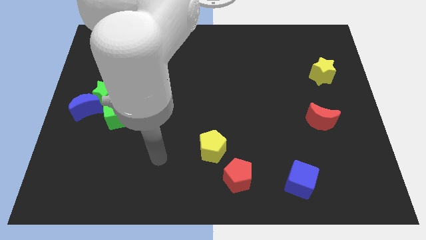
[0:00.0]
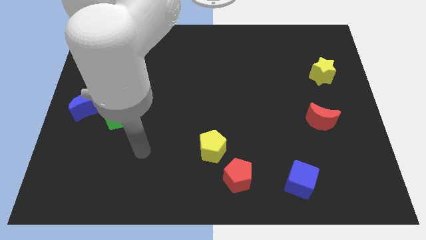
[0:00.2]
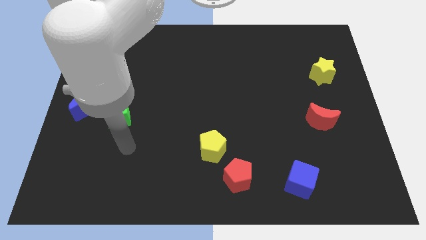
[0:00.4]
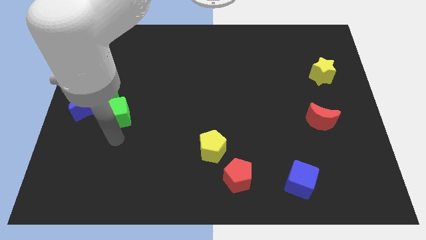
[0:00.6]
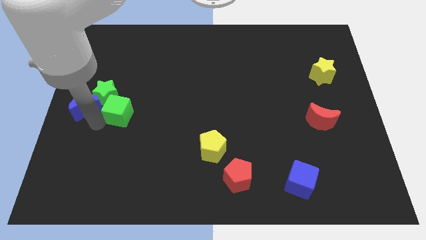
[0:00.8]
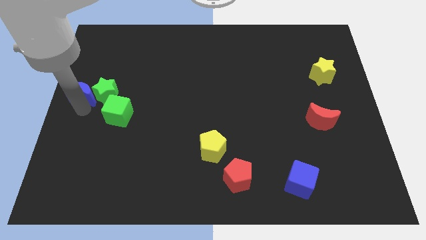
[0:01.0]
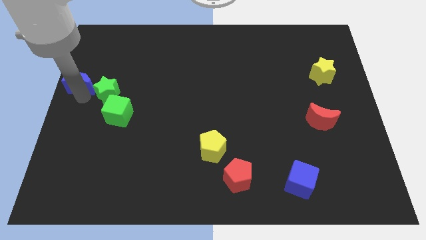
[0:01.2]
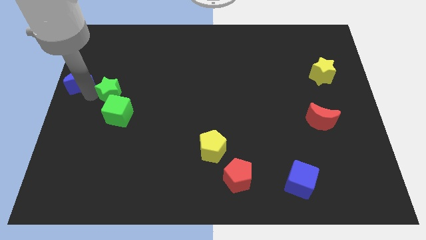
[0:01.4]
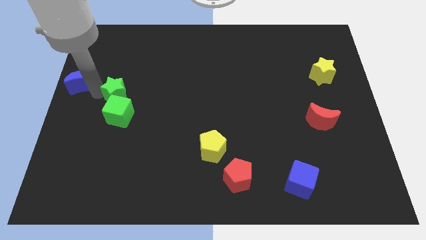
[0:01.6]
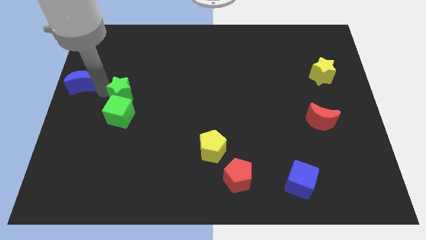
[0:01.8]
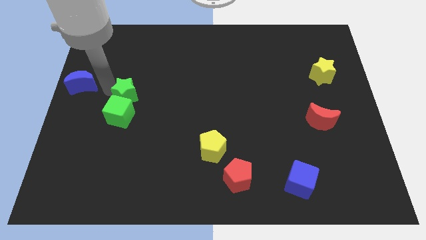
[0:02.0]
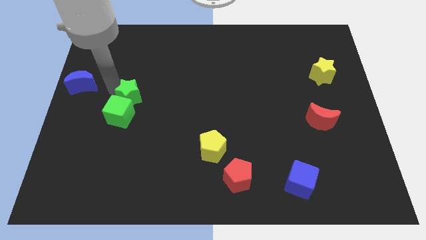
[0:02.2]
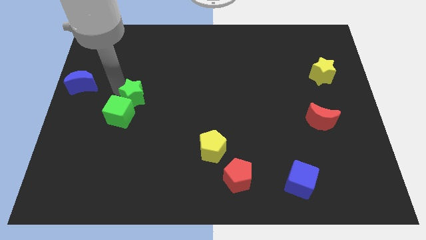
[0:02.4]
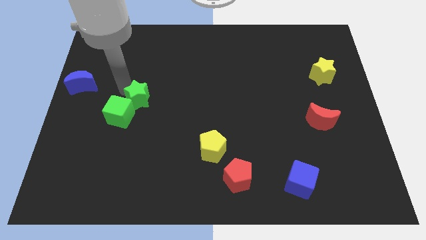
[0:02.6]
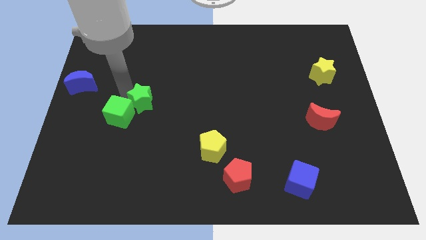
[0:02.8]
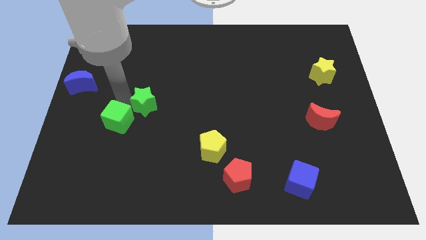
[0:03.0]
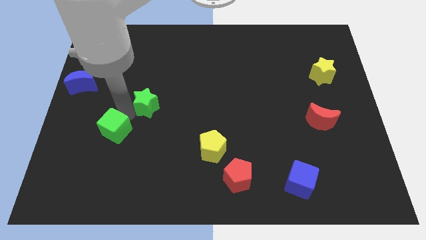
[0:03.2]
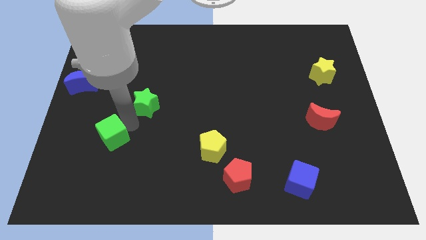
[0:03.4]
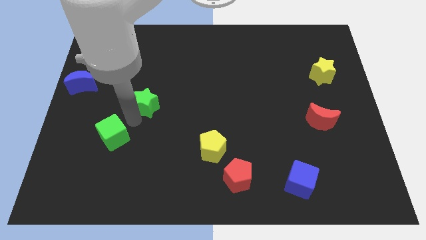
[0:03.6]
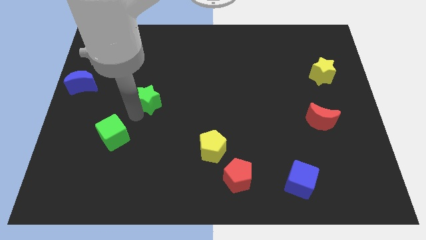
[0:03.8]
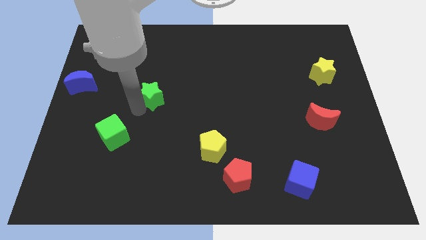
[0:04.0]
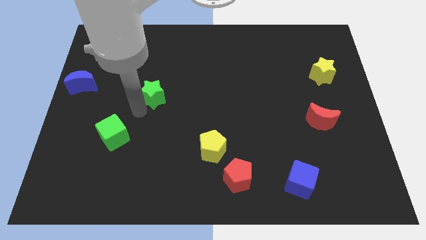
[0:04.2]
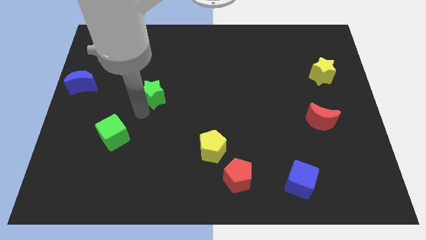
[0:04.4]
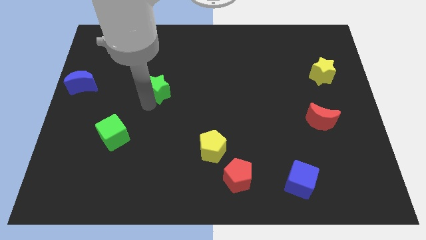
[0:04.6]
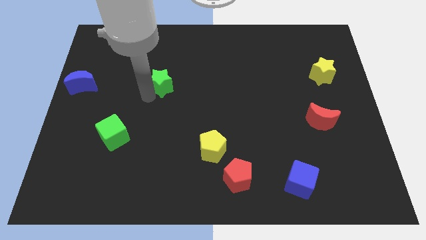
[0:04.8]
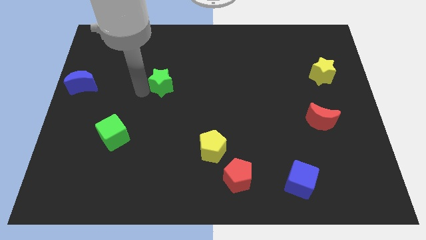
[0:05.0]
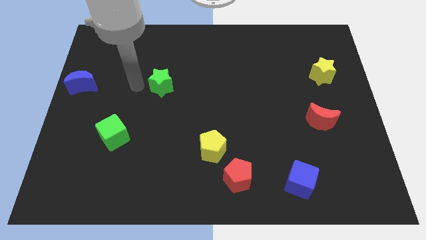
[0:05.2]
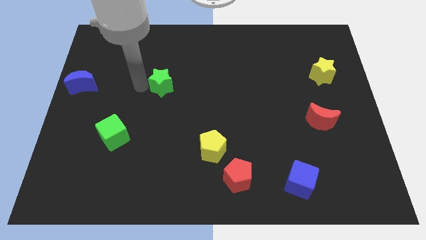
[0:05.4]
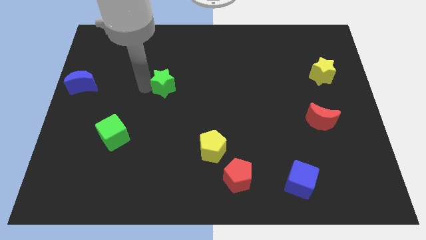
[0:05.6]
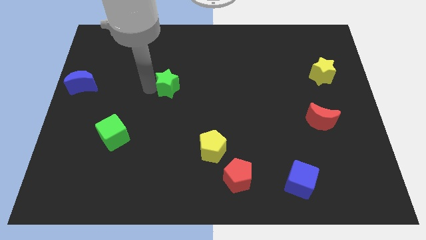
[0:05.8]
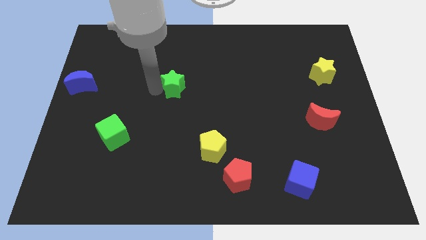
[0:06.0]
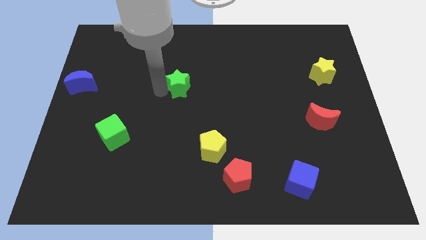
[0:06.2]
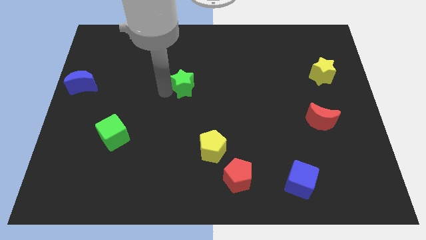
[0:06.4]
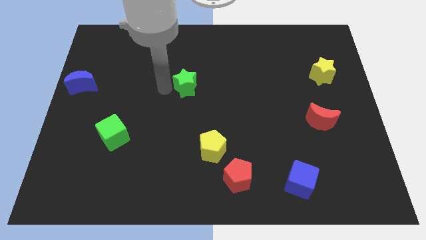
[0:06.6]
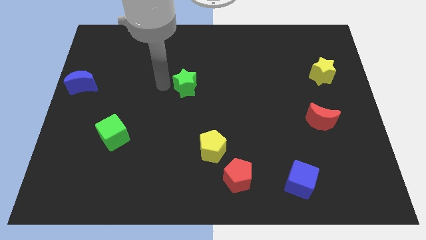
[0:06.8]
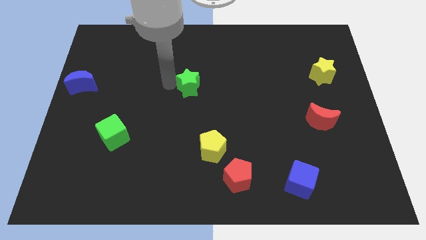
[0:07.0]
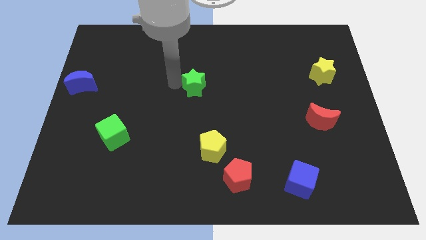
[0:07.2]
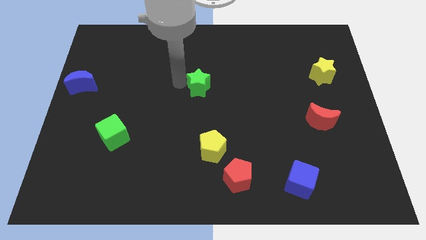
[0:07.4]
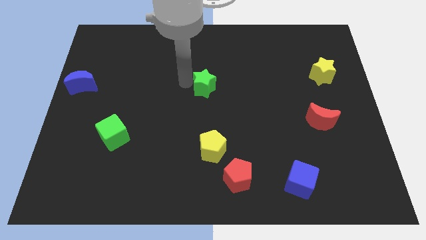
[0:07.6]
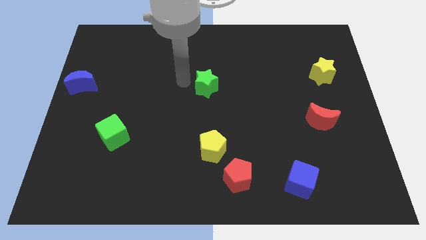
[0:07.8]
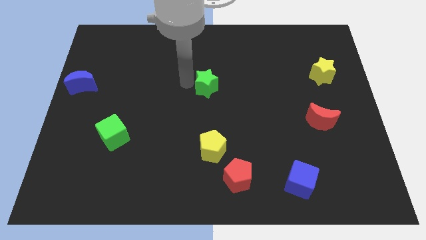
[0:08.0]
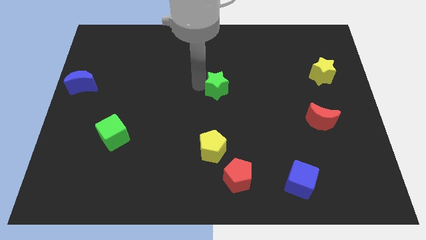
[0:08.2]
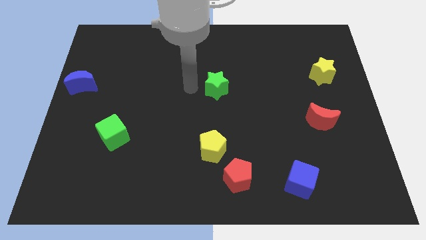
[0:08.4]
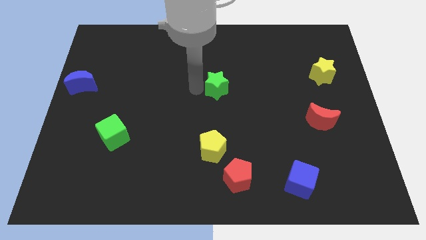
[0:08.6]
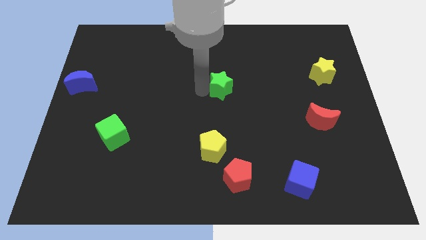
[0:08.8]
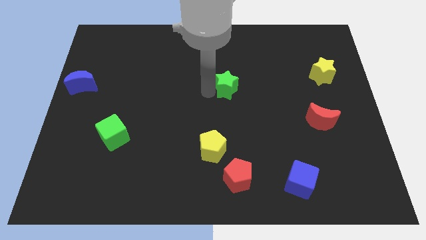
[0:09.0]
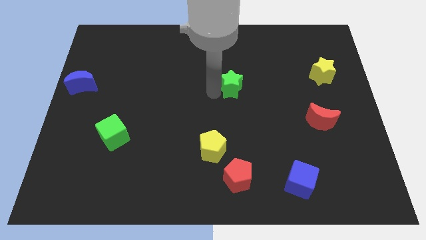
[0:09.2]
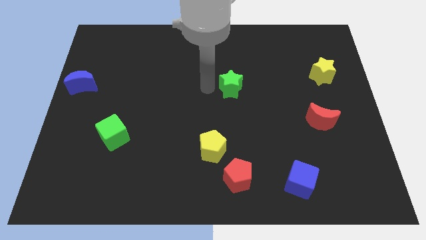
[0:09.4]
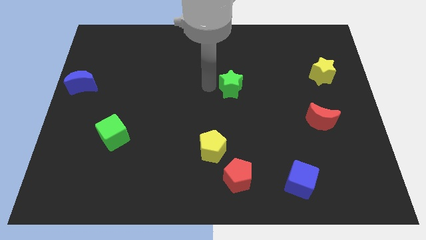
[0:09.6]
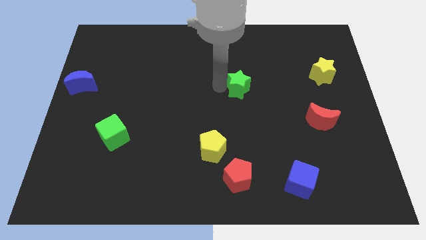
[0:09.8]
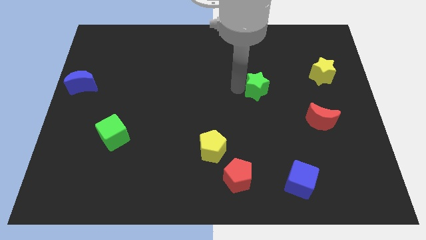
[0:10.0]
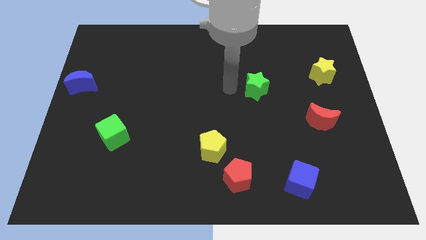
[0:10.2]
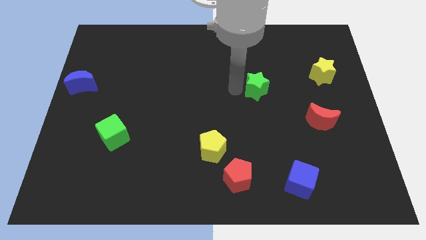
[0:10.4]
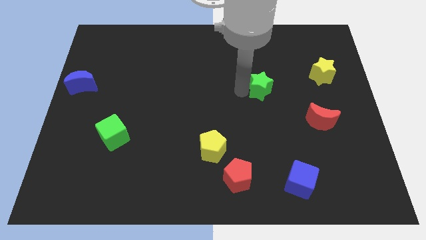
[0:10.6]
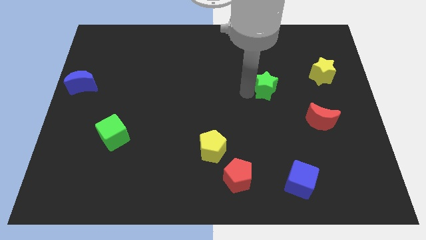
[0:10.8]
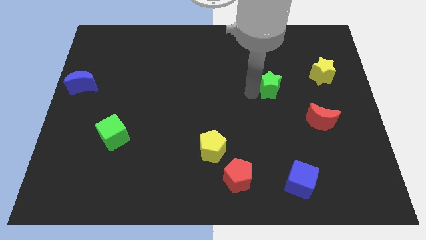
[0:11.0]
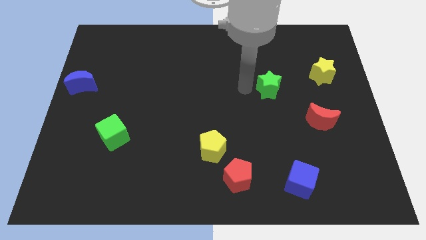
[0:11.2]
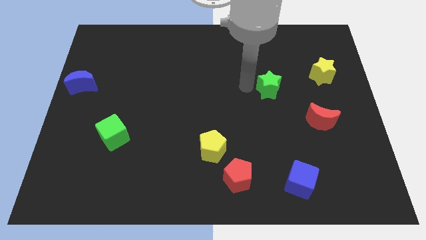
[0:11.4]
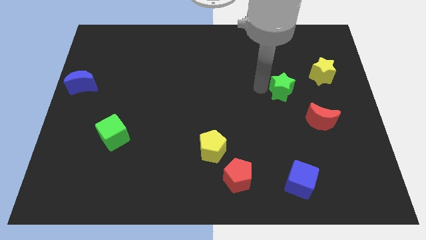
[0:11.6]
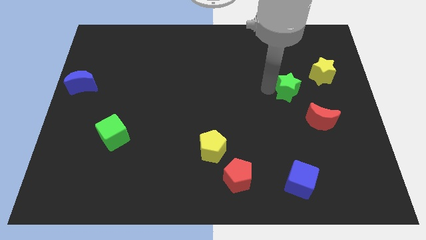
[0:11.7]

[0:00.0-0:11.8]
move the green star to the bottom left of the yellow star

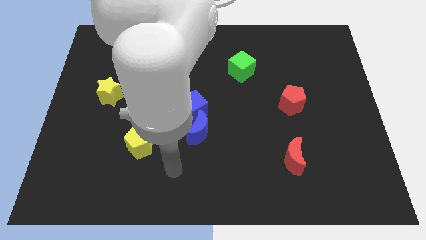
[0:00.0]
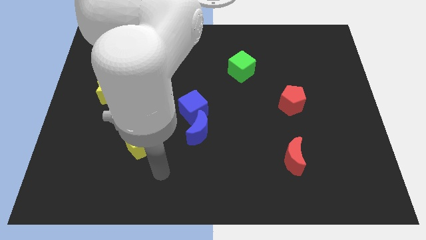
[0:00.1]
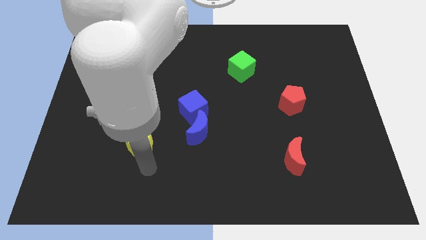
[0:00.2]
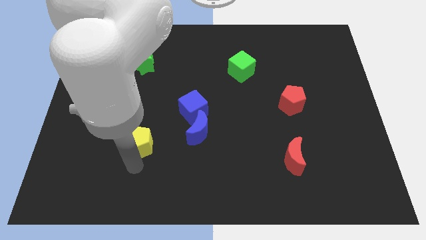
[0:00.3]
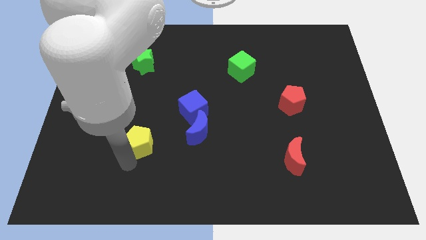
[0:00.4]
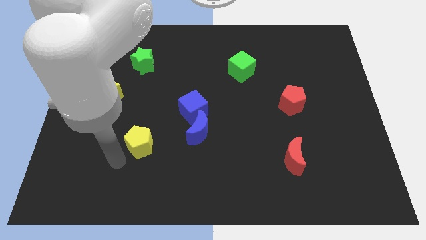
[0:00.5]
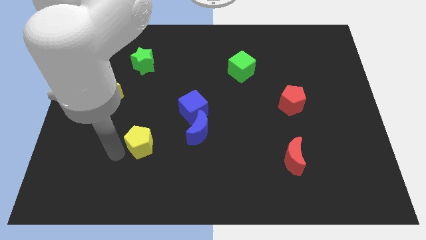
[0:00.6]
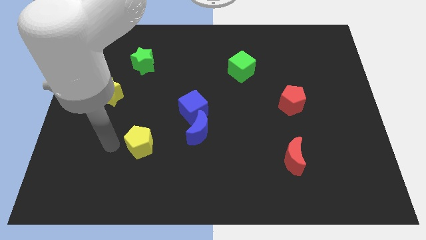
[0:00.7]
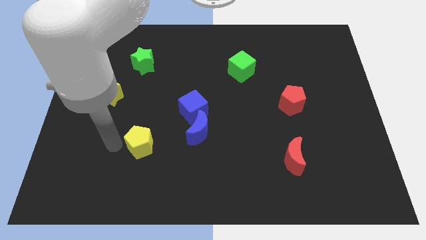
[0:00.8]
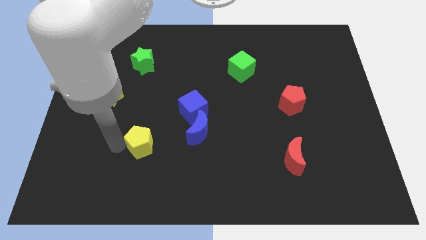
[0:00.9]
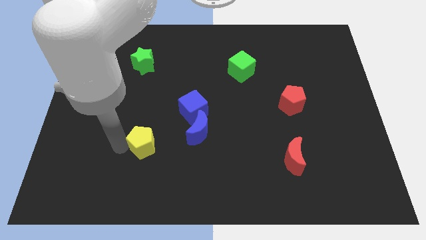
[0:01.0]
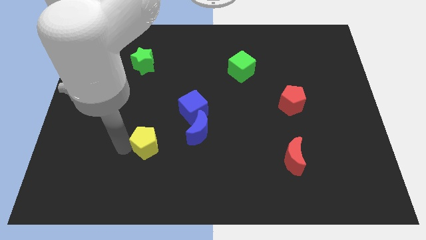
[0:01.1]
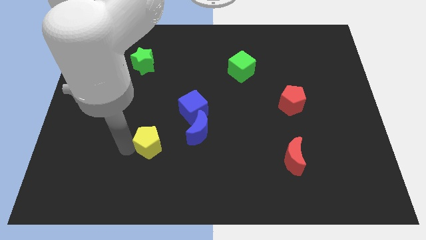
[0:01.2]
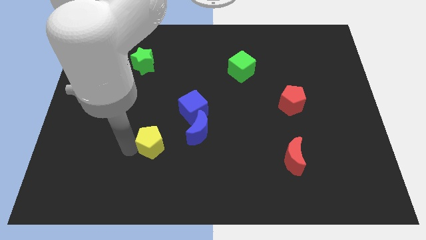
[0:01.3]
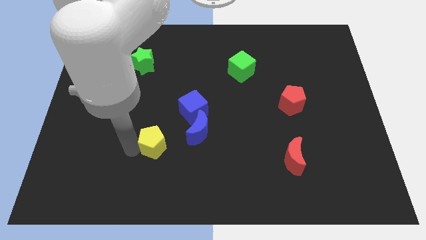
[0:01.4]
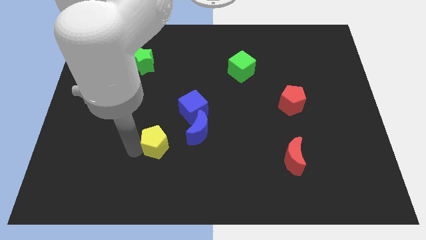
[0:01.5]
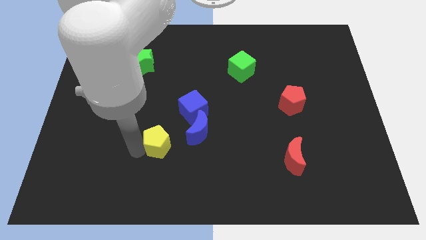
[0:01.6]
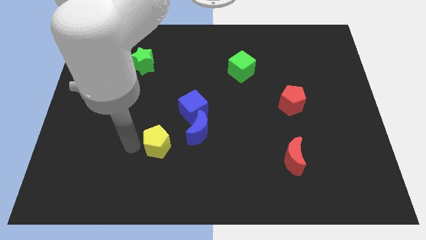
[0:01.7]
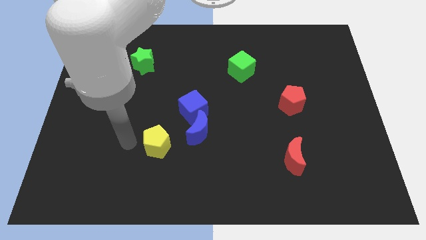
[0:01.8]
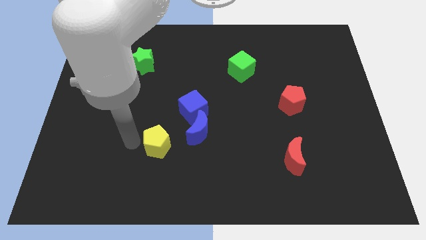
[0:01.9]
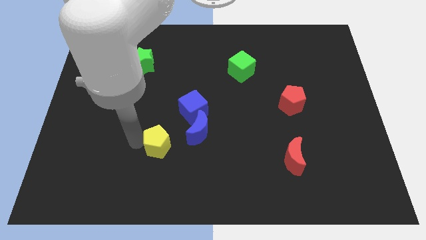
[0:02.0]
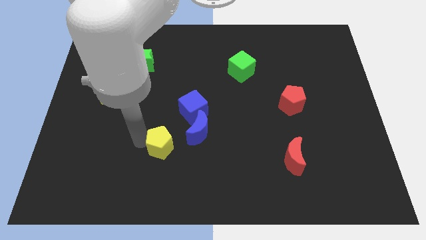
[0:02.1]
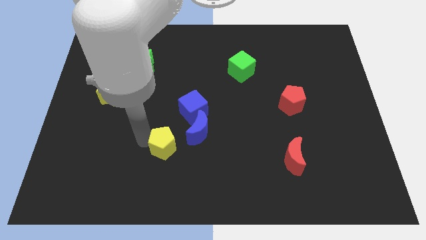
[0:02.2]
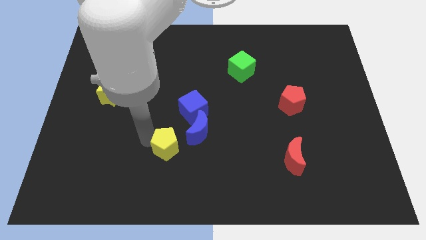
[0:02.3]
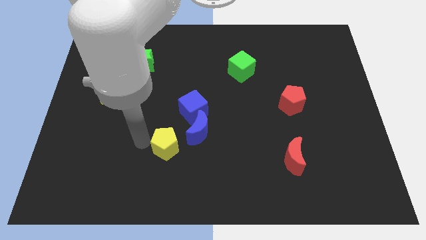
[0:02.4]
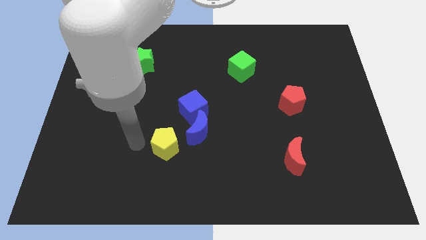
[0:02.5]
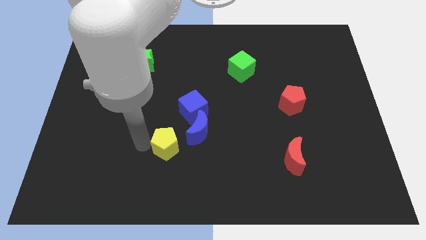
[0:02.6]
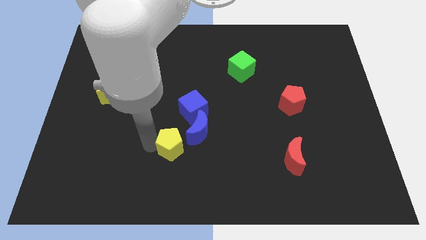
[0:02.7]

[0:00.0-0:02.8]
put the yellow pentagon below the blue cube
